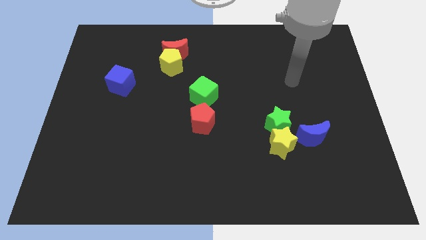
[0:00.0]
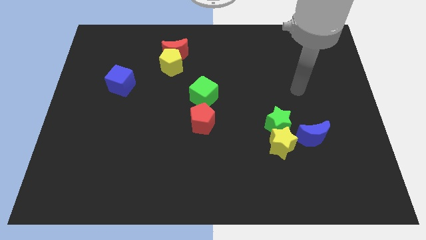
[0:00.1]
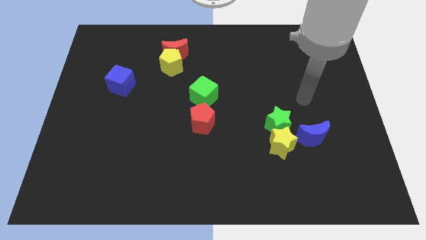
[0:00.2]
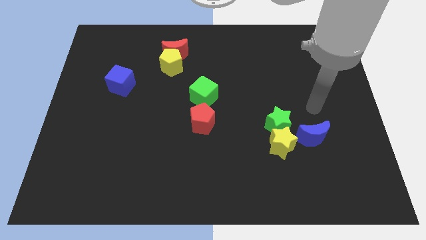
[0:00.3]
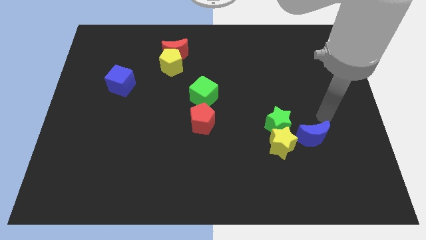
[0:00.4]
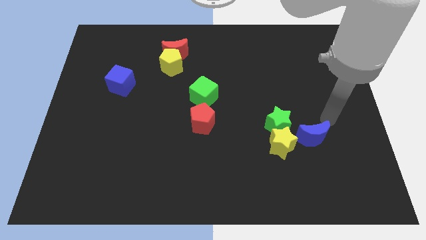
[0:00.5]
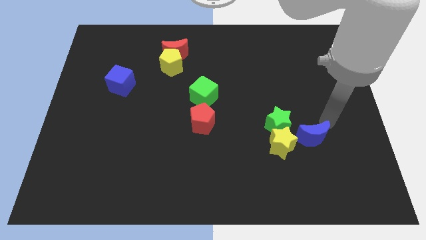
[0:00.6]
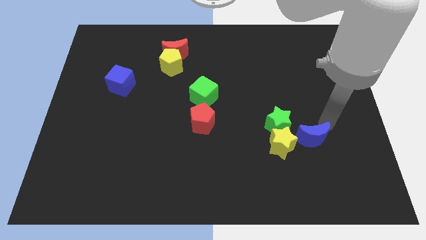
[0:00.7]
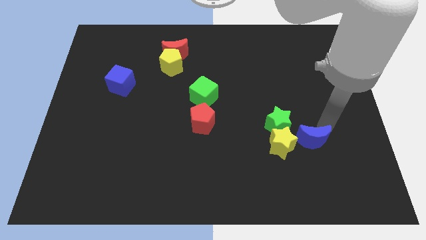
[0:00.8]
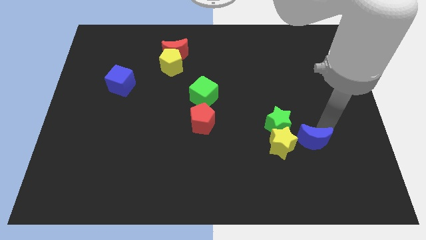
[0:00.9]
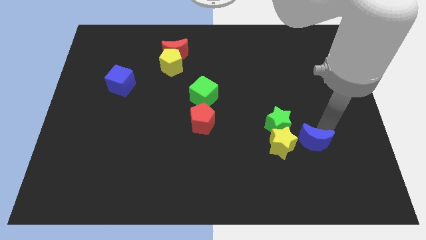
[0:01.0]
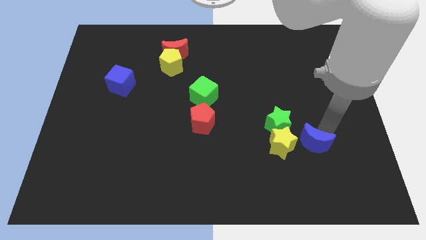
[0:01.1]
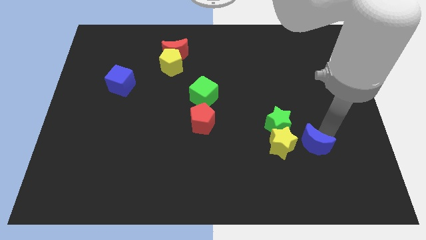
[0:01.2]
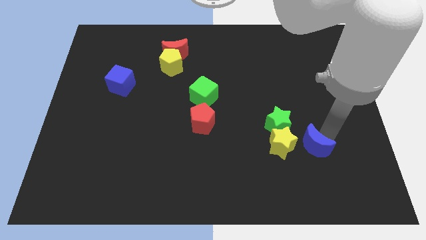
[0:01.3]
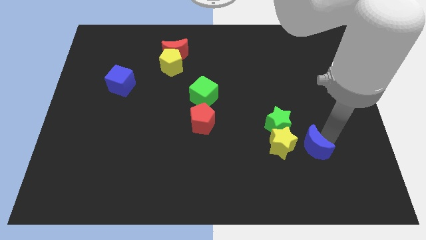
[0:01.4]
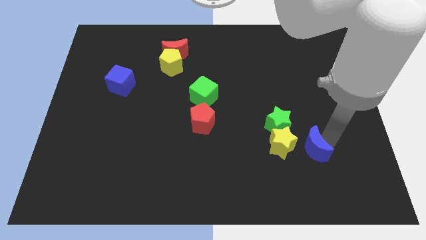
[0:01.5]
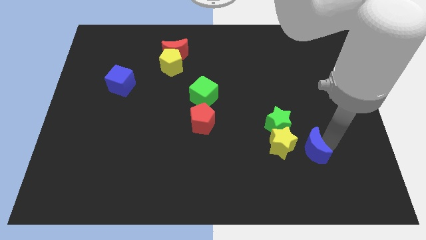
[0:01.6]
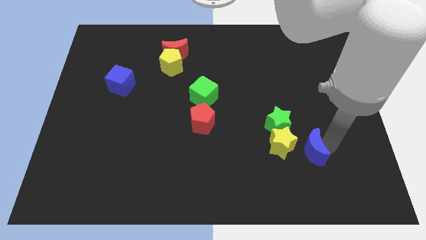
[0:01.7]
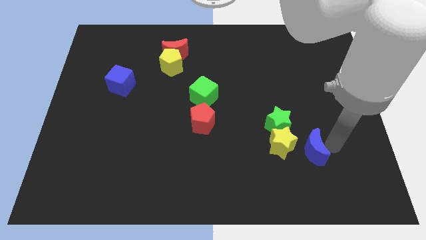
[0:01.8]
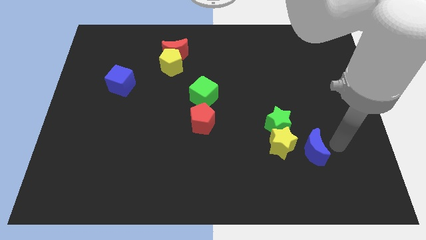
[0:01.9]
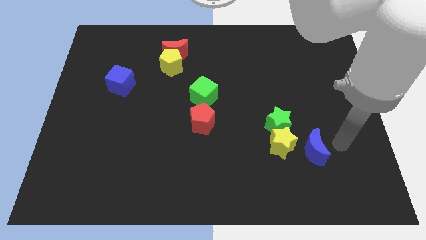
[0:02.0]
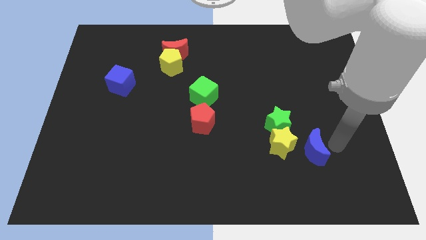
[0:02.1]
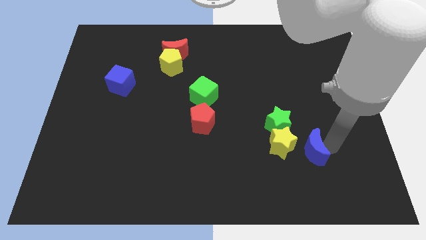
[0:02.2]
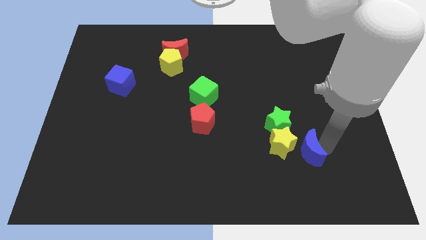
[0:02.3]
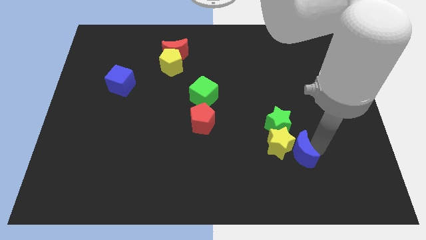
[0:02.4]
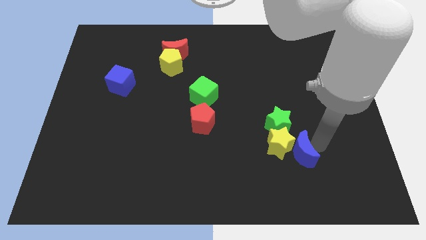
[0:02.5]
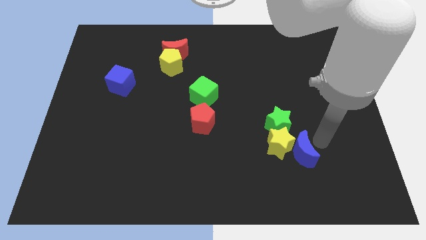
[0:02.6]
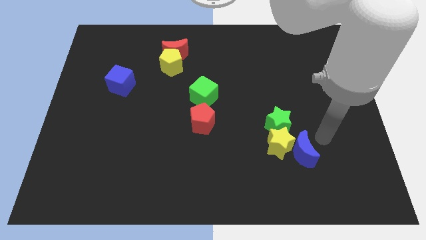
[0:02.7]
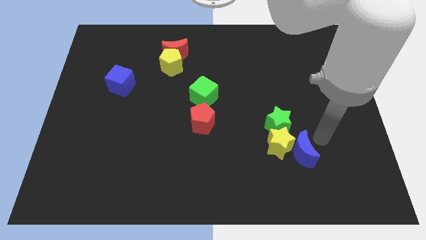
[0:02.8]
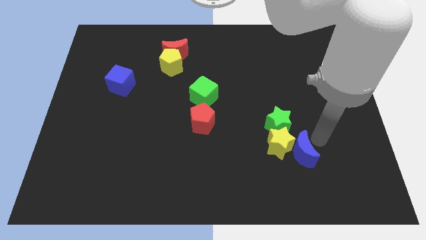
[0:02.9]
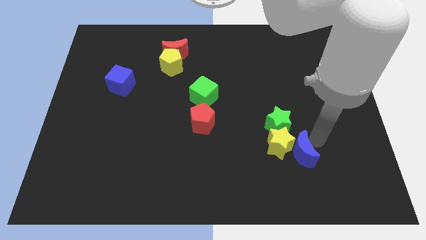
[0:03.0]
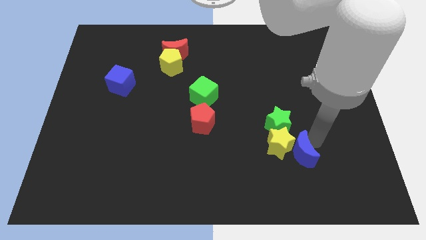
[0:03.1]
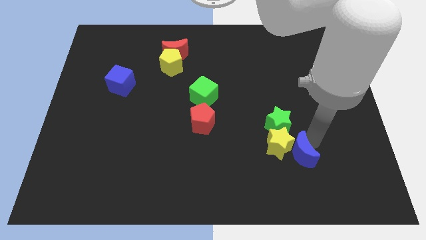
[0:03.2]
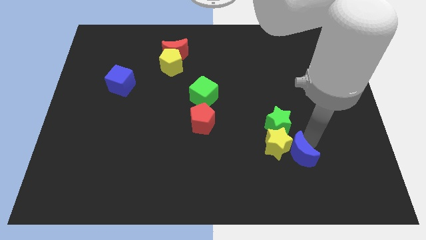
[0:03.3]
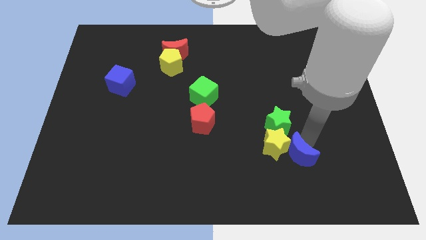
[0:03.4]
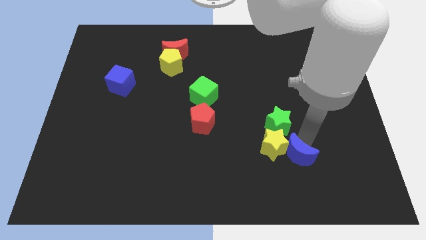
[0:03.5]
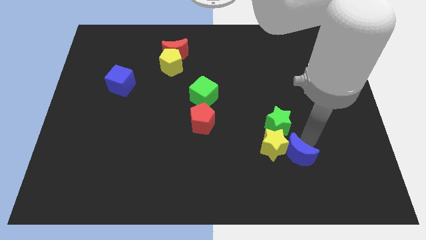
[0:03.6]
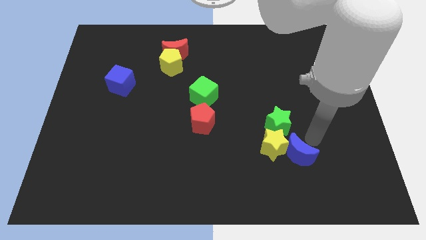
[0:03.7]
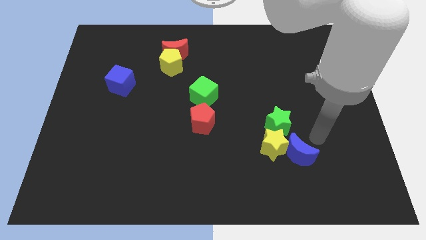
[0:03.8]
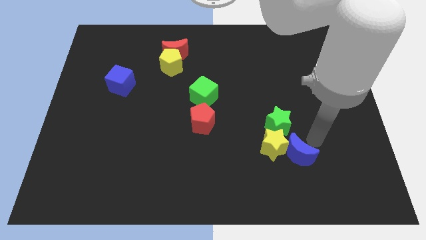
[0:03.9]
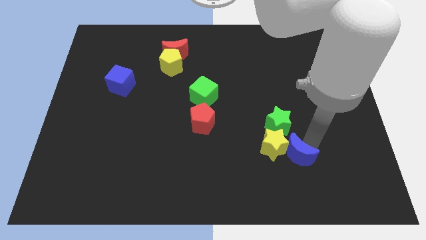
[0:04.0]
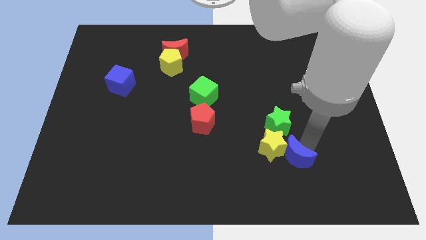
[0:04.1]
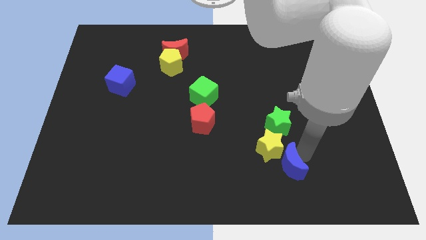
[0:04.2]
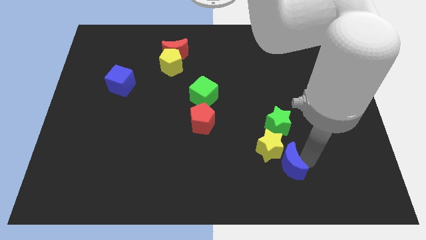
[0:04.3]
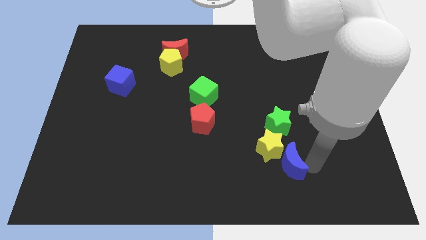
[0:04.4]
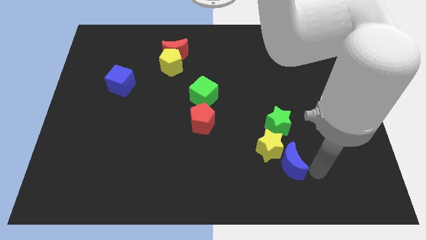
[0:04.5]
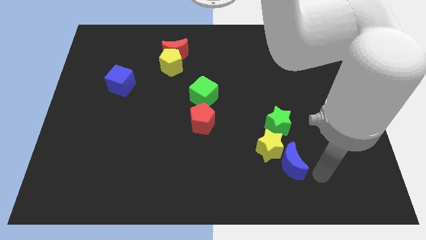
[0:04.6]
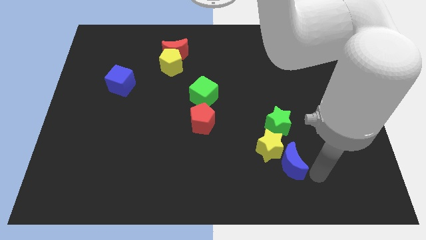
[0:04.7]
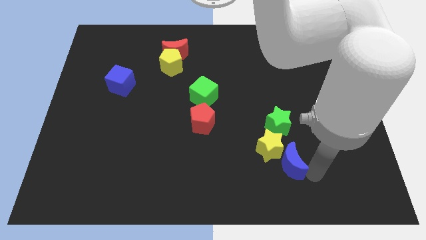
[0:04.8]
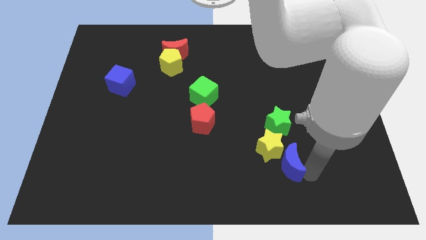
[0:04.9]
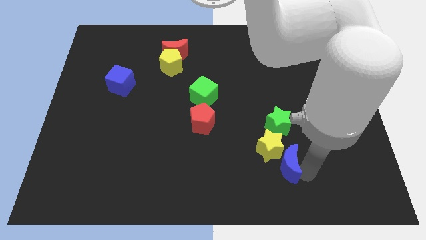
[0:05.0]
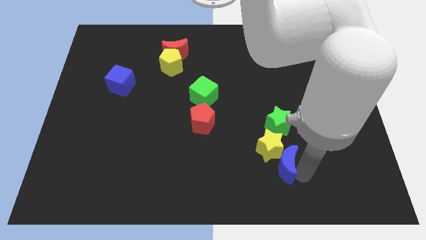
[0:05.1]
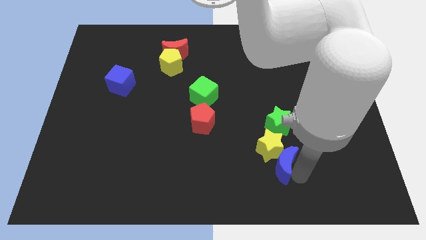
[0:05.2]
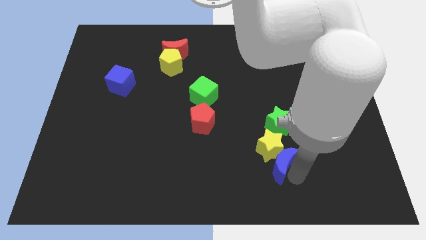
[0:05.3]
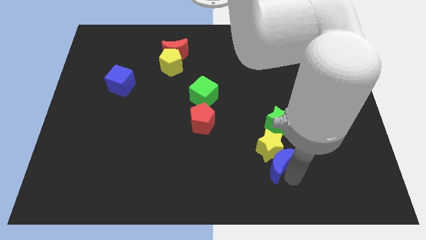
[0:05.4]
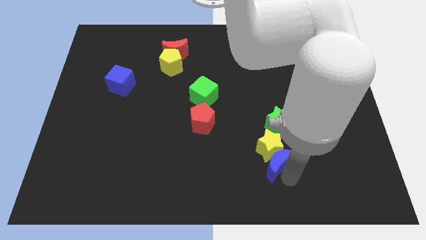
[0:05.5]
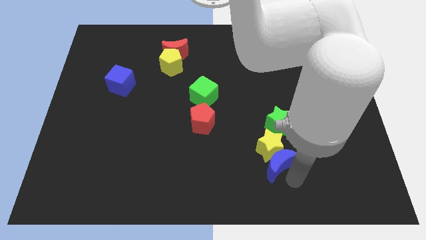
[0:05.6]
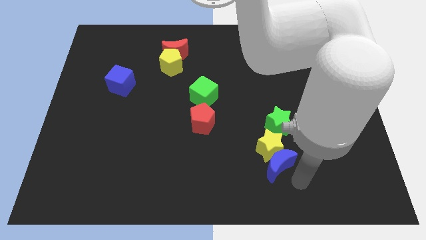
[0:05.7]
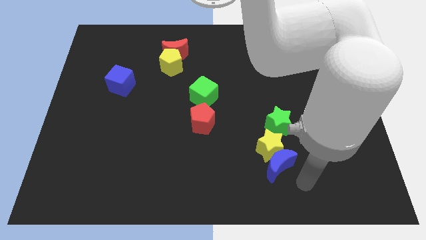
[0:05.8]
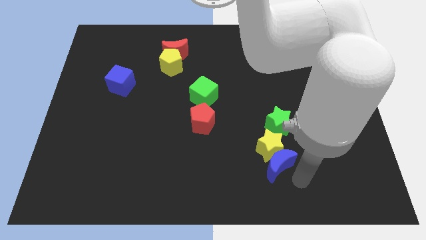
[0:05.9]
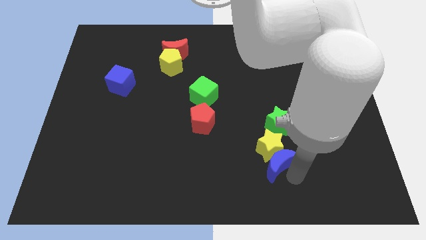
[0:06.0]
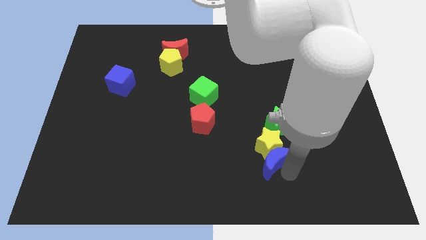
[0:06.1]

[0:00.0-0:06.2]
push the blue moon left slightly

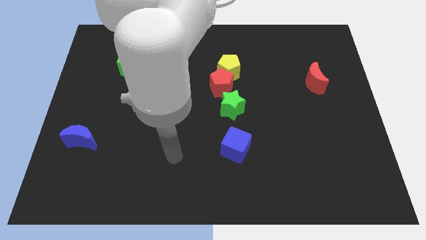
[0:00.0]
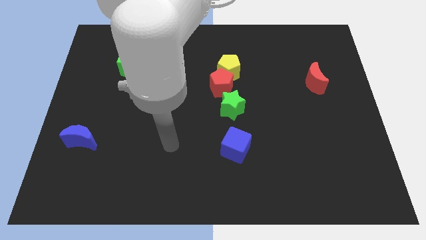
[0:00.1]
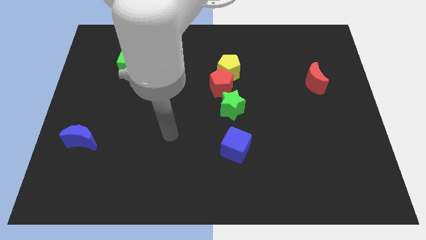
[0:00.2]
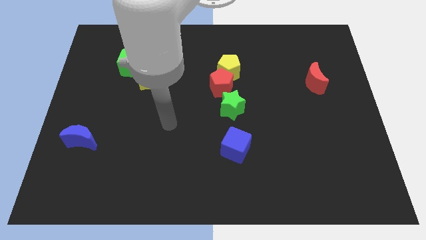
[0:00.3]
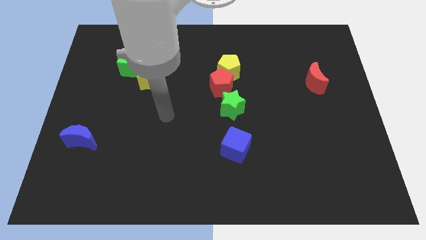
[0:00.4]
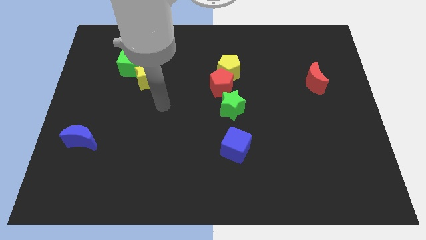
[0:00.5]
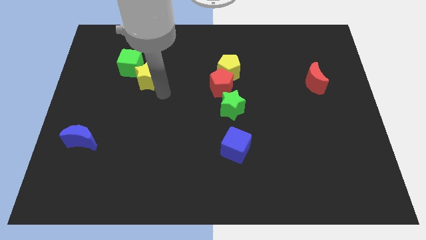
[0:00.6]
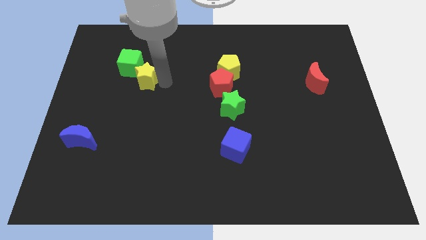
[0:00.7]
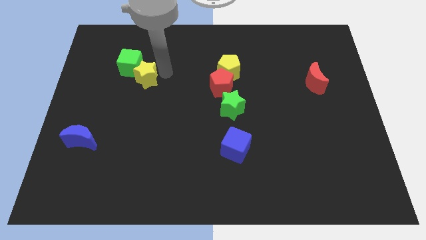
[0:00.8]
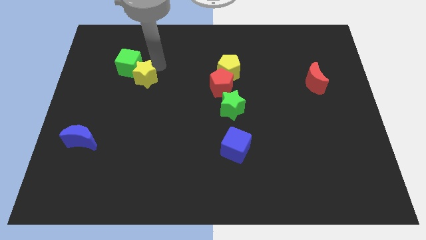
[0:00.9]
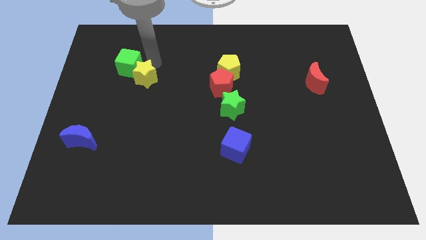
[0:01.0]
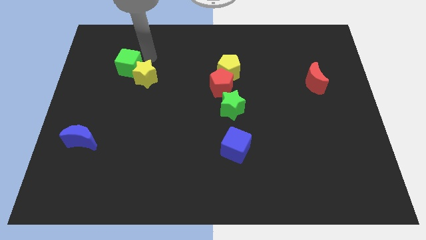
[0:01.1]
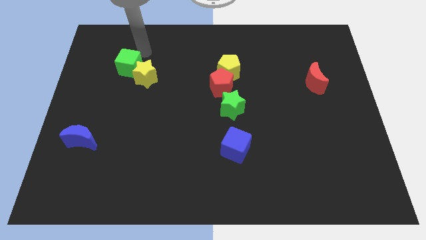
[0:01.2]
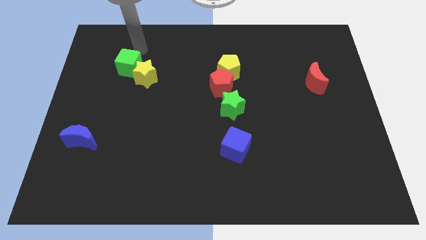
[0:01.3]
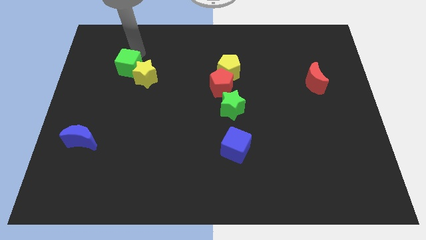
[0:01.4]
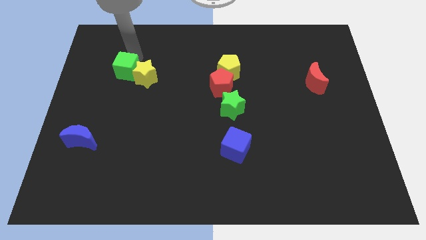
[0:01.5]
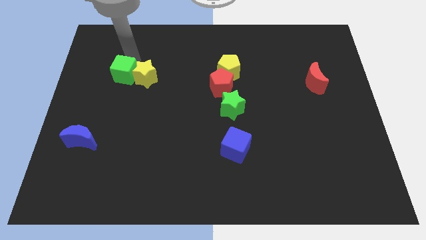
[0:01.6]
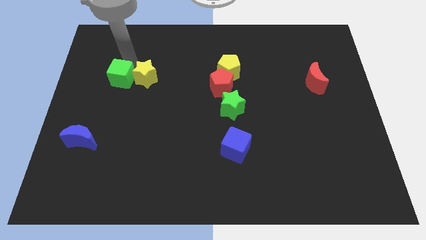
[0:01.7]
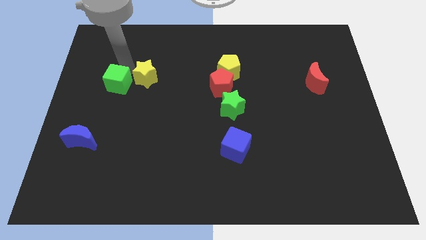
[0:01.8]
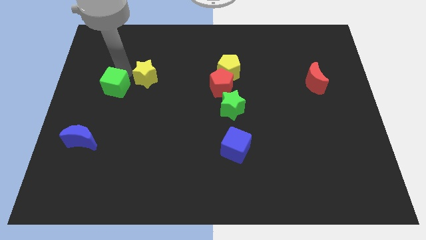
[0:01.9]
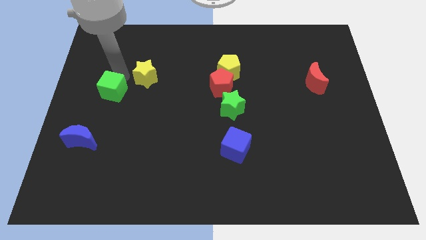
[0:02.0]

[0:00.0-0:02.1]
push the green cube down a little bit
